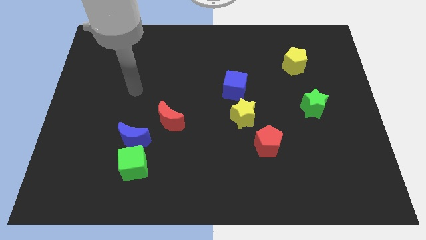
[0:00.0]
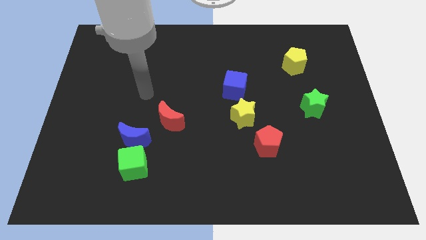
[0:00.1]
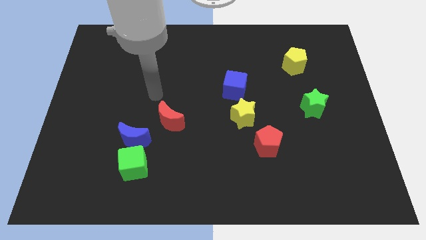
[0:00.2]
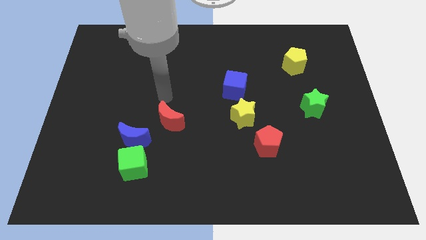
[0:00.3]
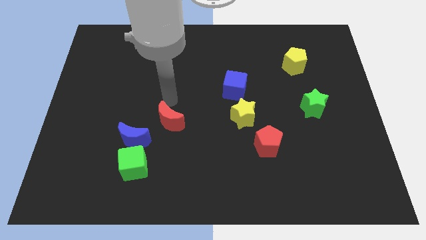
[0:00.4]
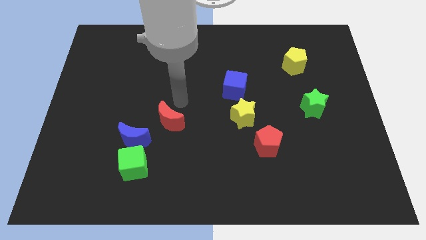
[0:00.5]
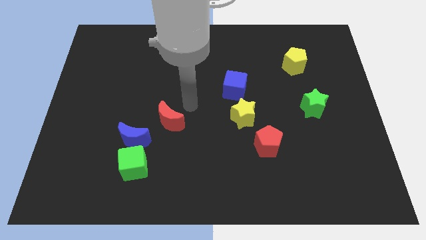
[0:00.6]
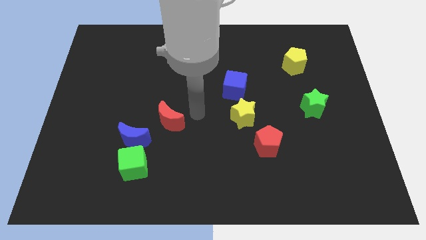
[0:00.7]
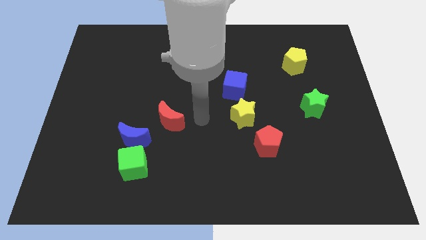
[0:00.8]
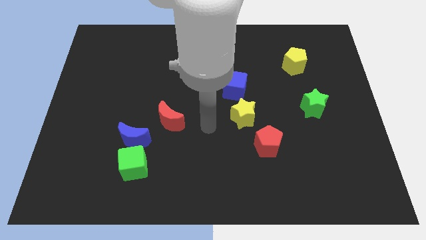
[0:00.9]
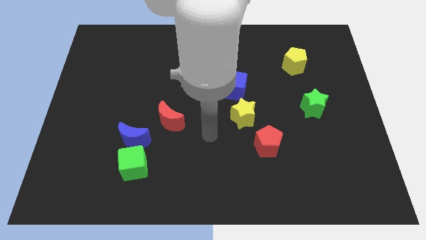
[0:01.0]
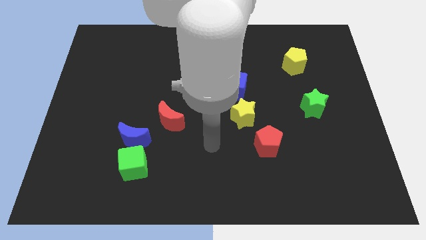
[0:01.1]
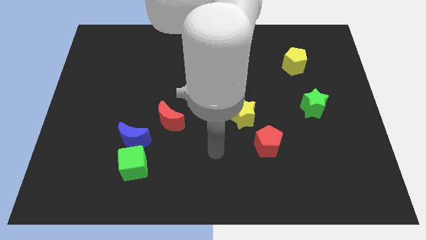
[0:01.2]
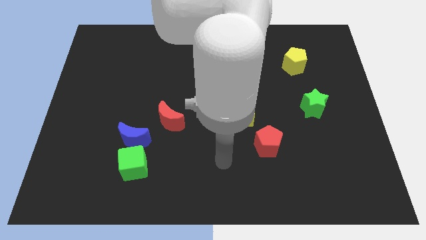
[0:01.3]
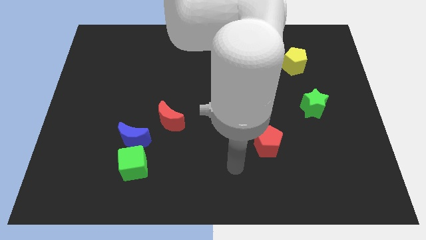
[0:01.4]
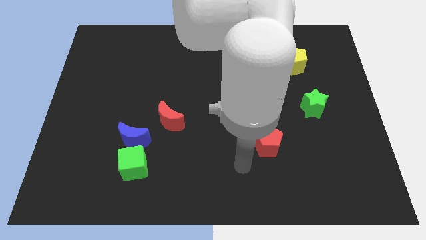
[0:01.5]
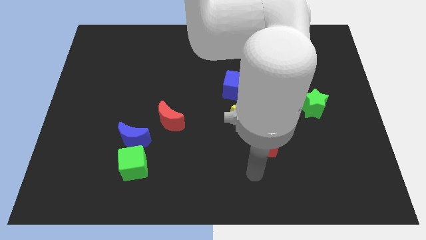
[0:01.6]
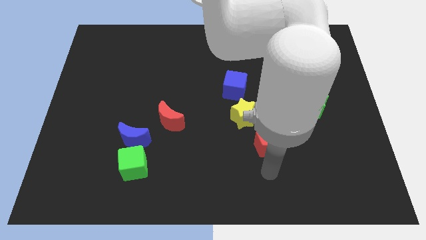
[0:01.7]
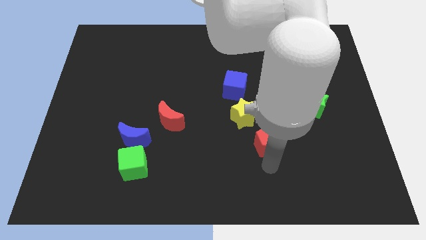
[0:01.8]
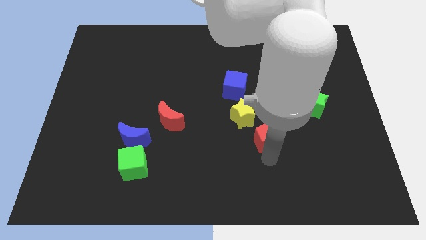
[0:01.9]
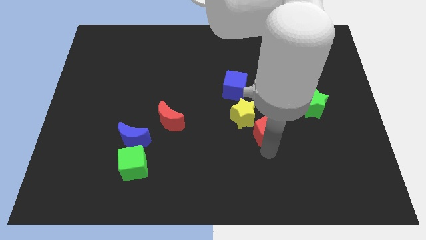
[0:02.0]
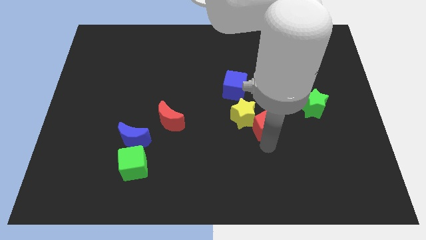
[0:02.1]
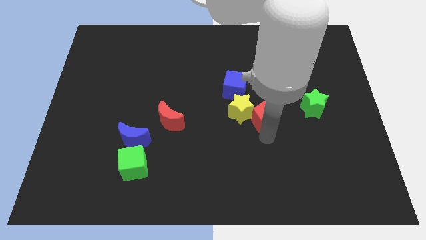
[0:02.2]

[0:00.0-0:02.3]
slide the red pentagon a little upwards

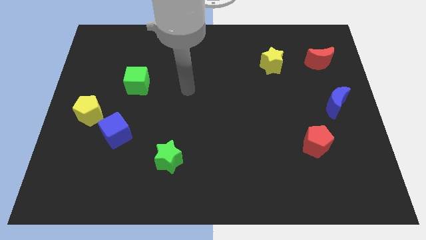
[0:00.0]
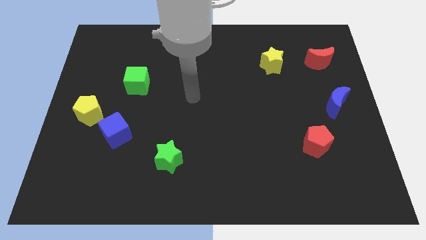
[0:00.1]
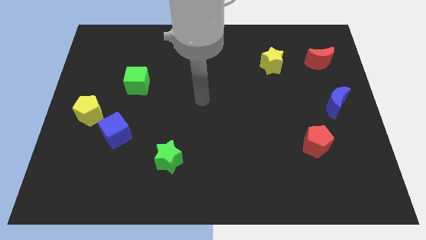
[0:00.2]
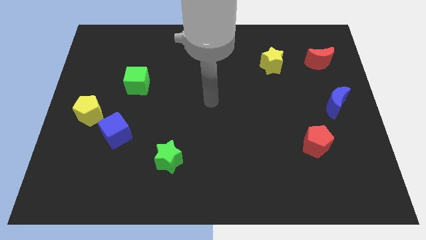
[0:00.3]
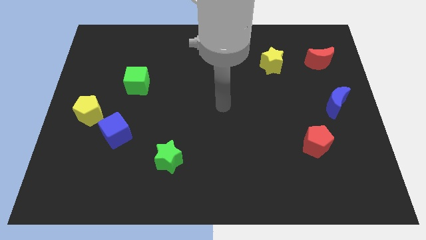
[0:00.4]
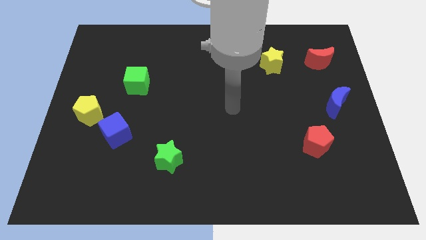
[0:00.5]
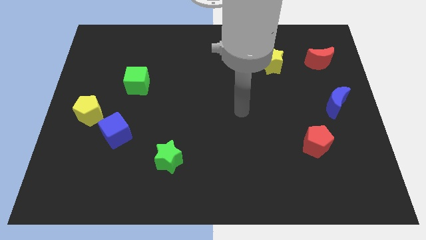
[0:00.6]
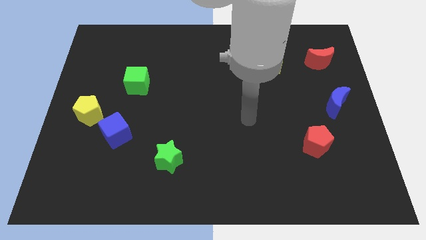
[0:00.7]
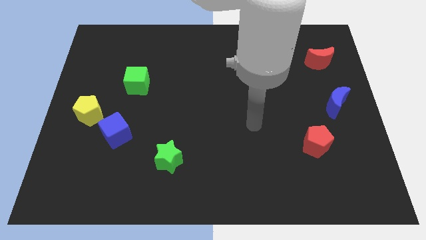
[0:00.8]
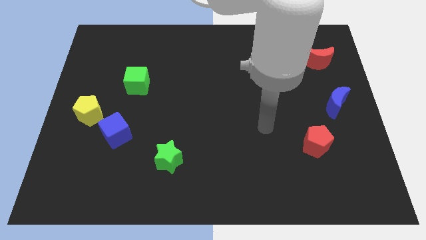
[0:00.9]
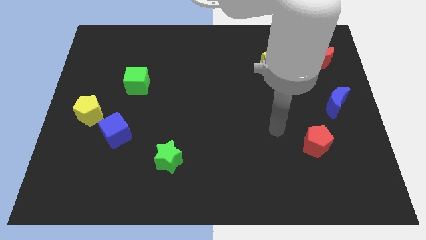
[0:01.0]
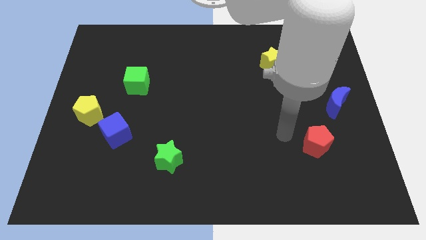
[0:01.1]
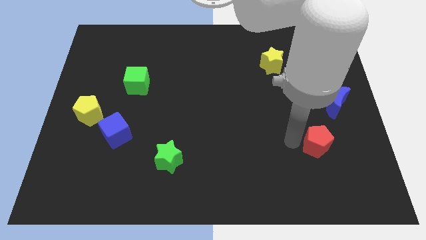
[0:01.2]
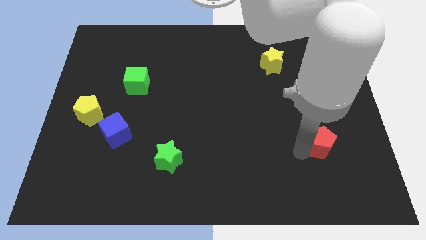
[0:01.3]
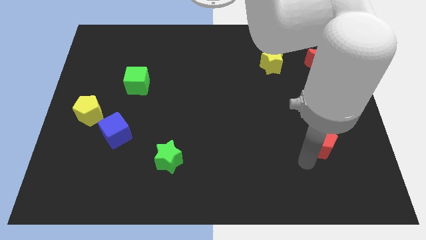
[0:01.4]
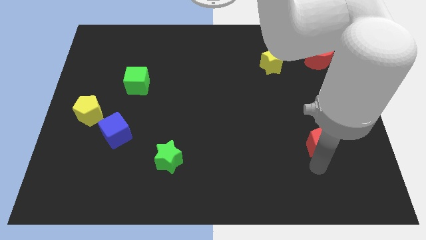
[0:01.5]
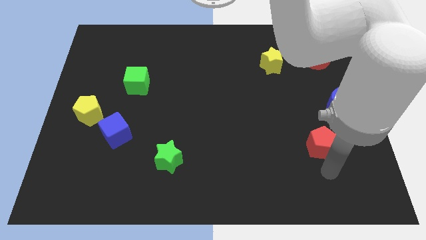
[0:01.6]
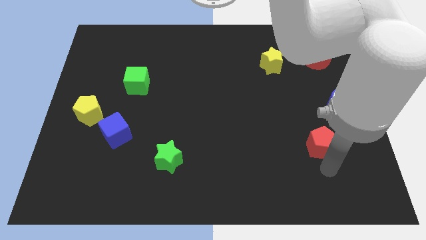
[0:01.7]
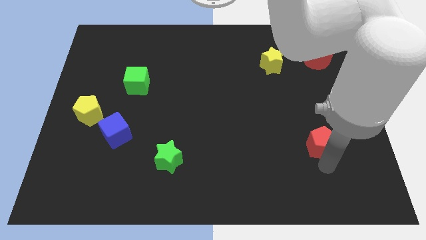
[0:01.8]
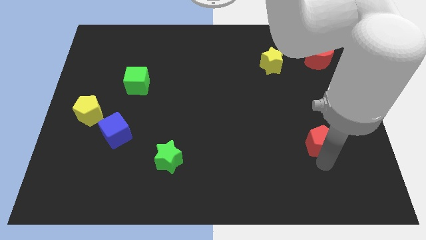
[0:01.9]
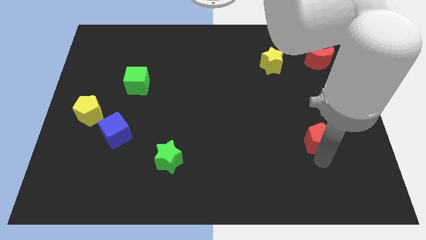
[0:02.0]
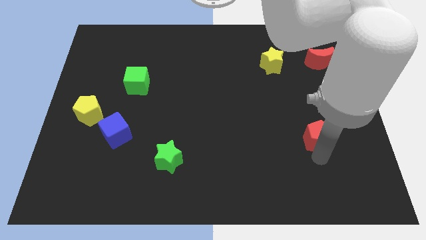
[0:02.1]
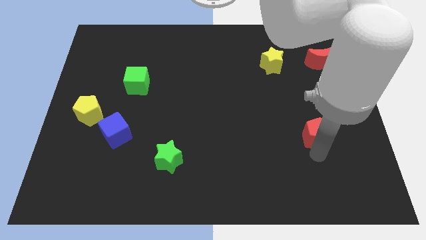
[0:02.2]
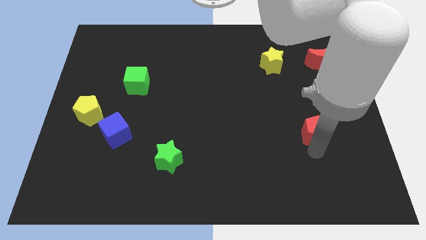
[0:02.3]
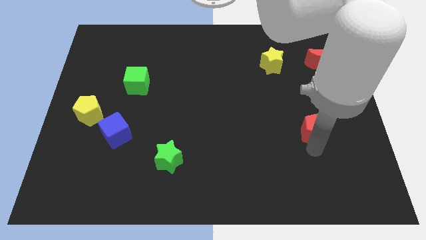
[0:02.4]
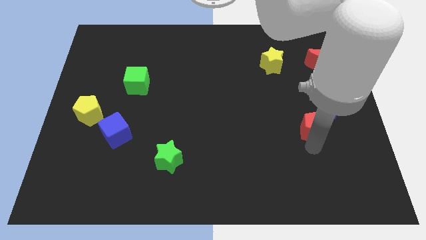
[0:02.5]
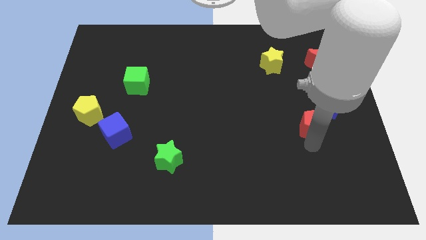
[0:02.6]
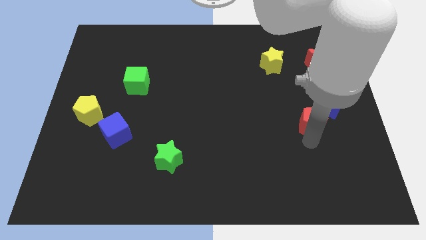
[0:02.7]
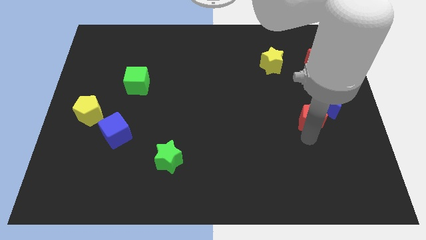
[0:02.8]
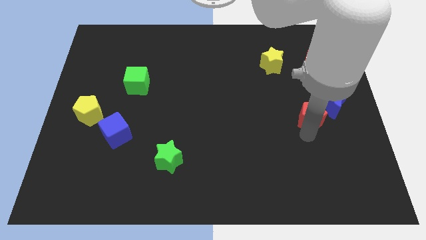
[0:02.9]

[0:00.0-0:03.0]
move the red pentagon upwards somewhat

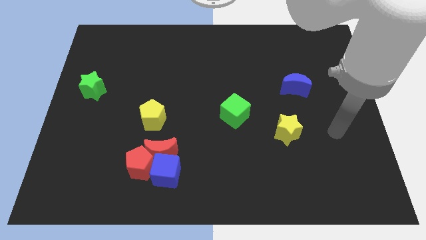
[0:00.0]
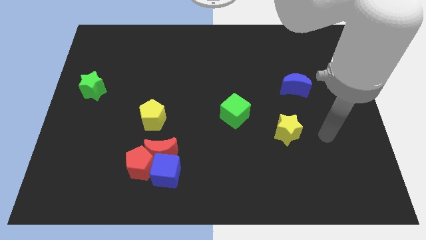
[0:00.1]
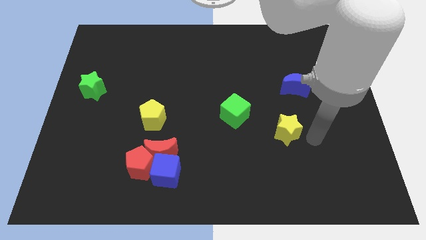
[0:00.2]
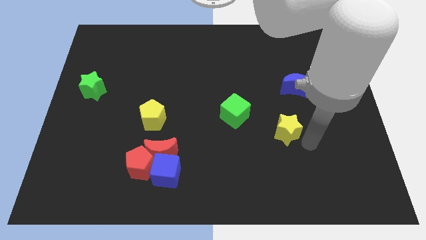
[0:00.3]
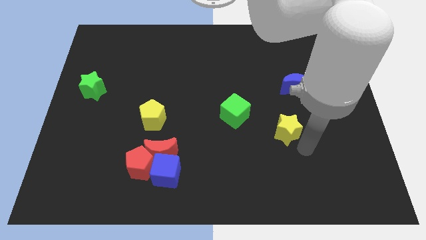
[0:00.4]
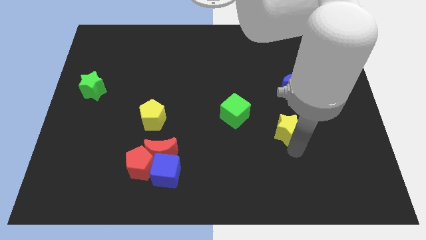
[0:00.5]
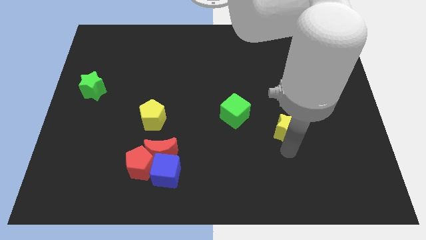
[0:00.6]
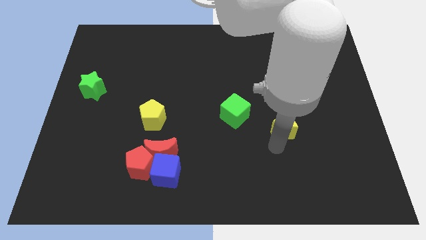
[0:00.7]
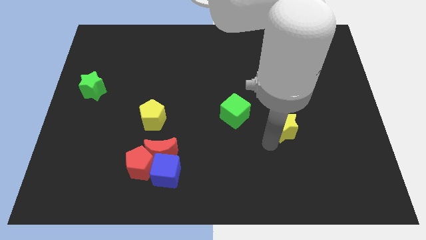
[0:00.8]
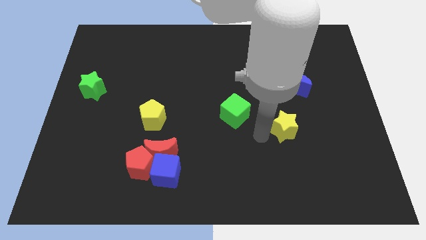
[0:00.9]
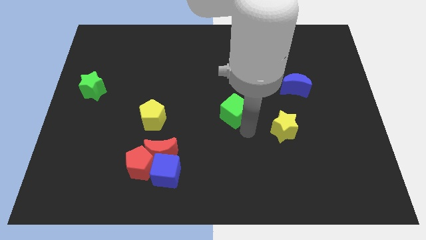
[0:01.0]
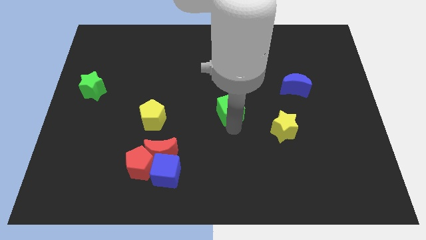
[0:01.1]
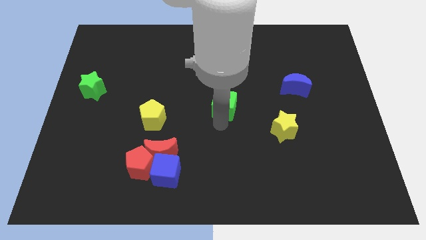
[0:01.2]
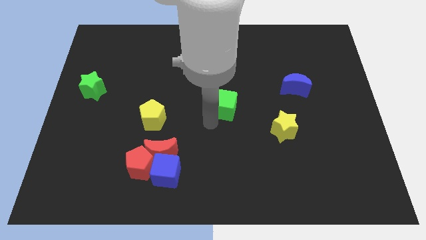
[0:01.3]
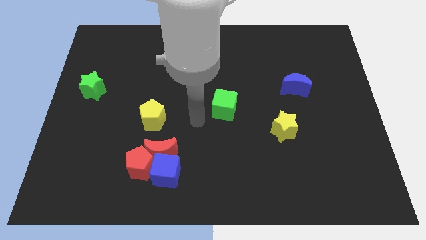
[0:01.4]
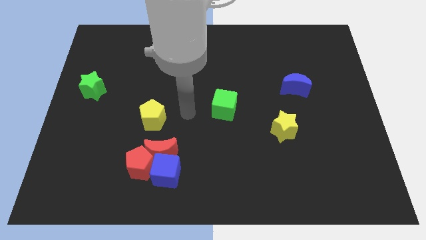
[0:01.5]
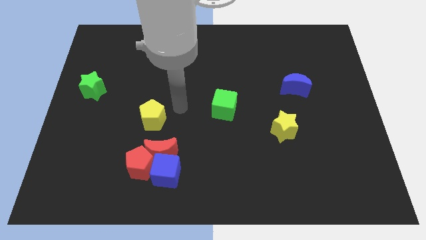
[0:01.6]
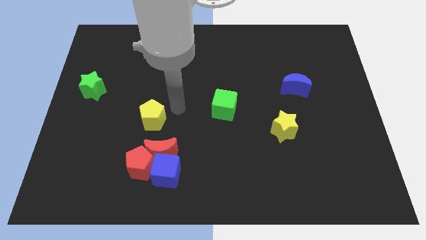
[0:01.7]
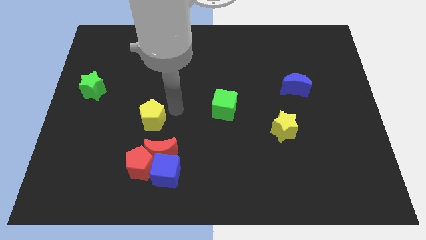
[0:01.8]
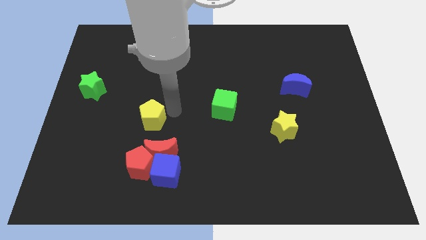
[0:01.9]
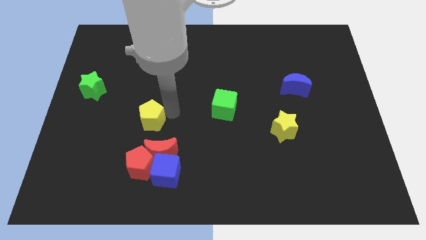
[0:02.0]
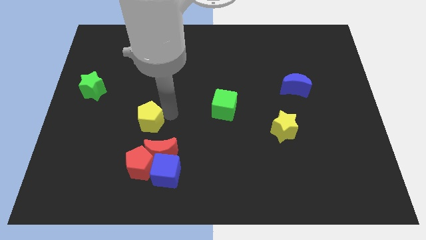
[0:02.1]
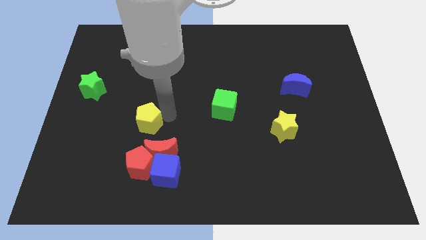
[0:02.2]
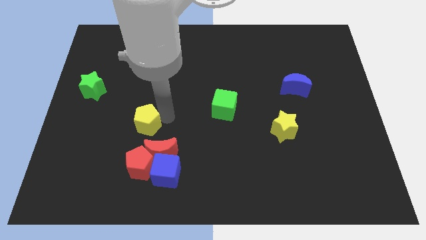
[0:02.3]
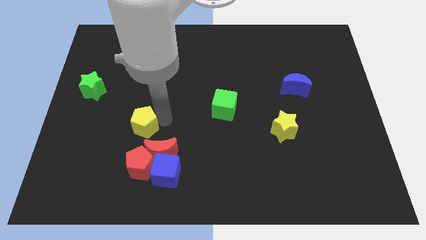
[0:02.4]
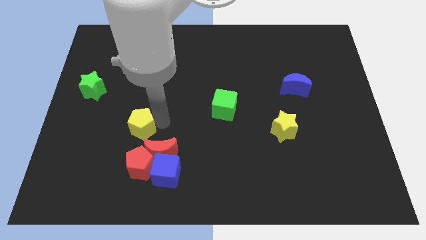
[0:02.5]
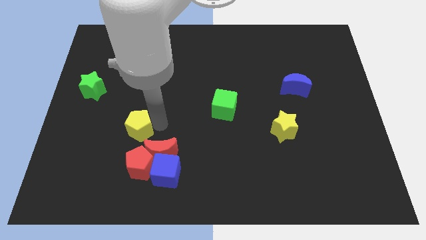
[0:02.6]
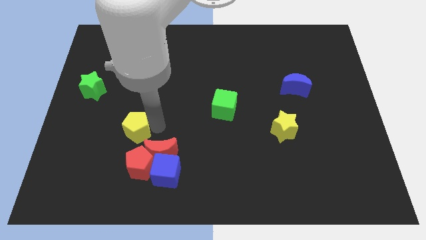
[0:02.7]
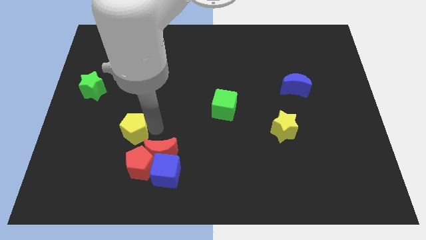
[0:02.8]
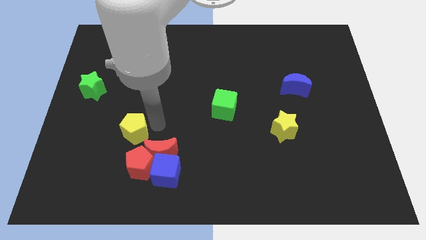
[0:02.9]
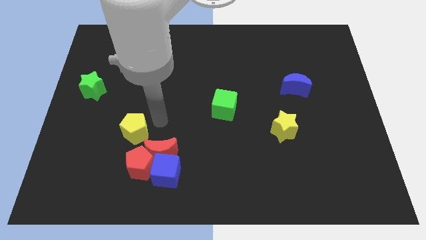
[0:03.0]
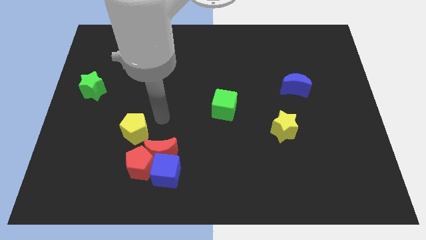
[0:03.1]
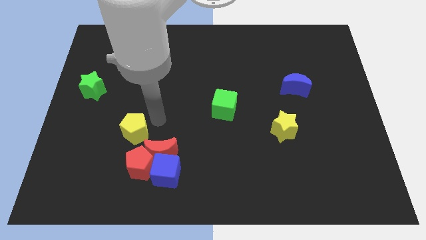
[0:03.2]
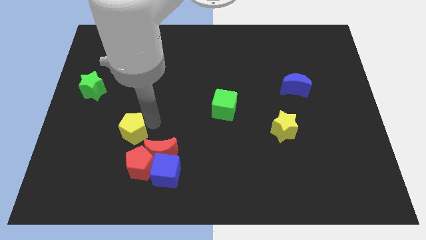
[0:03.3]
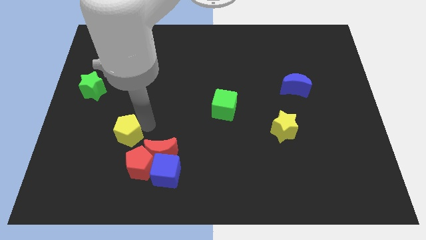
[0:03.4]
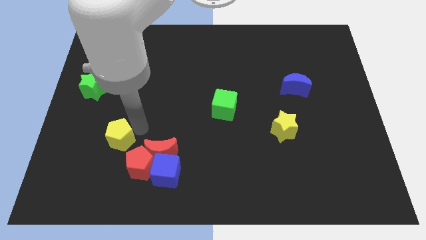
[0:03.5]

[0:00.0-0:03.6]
slide the yellow pentagon a bit down and to the left diagonally
